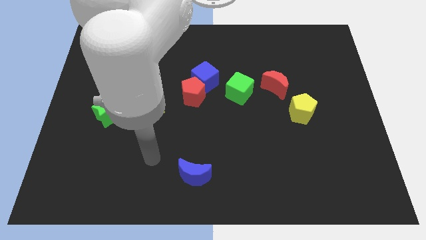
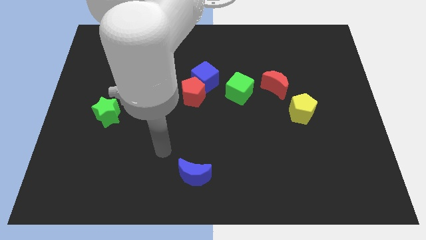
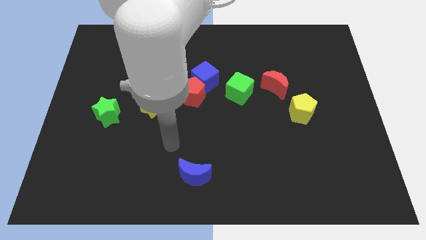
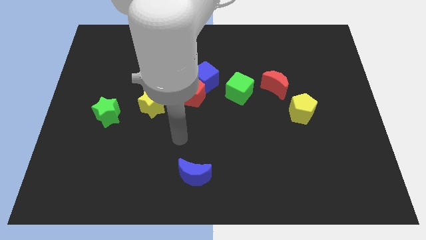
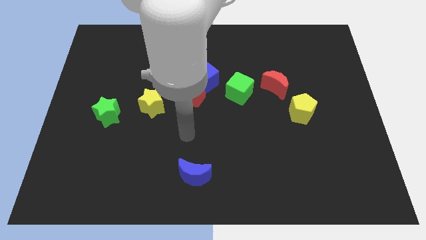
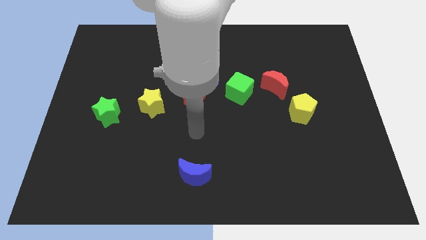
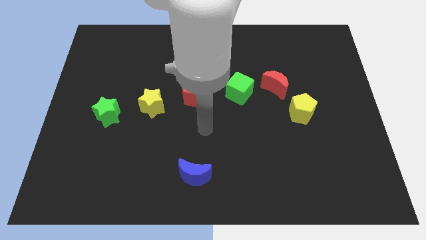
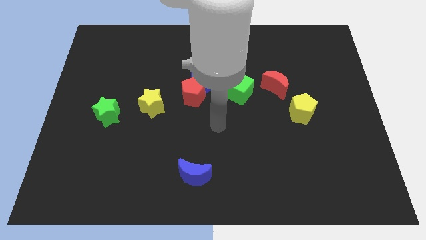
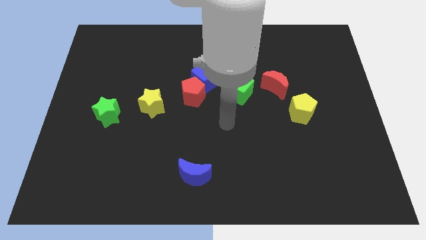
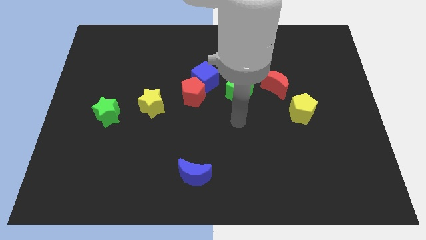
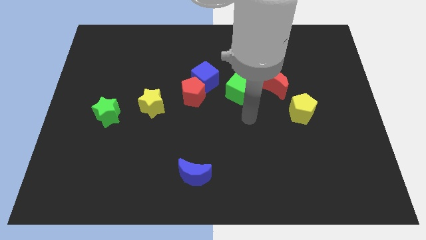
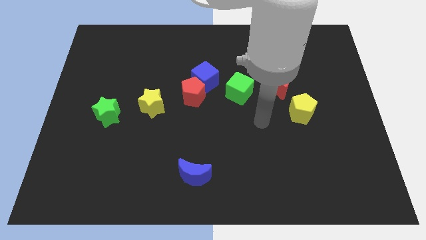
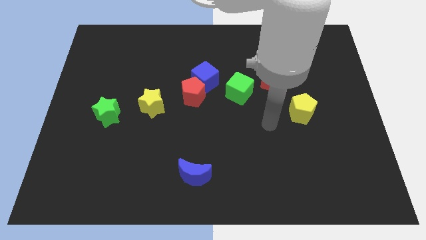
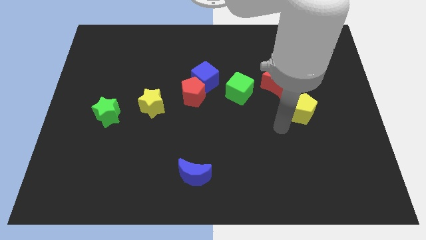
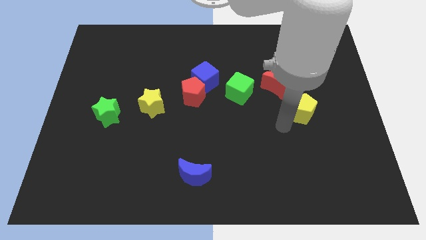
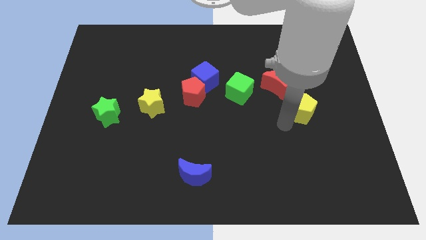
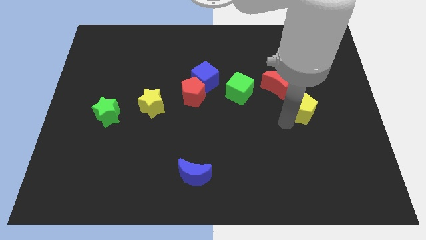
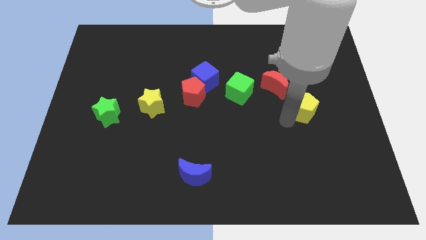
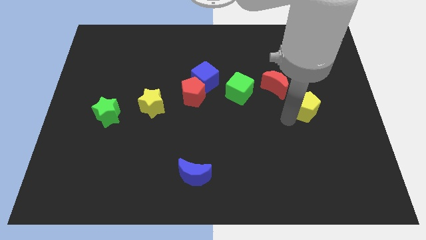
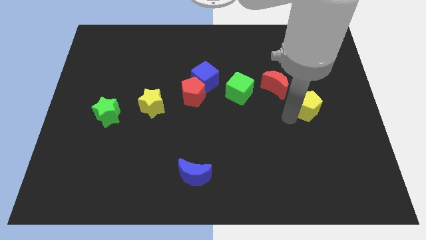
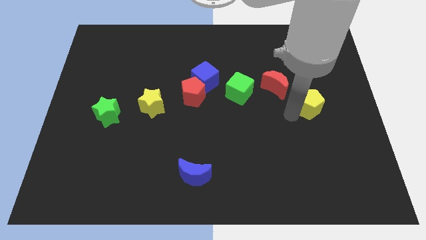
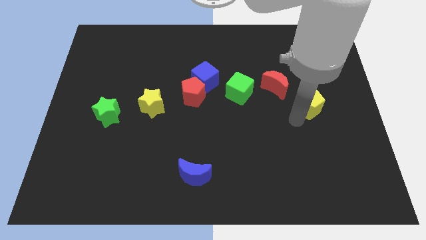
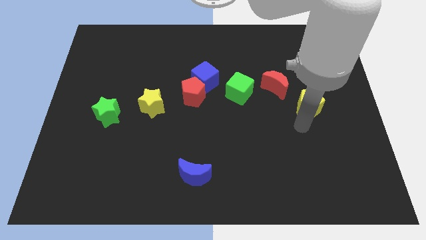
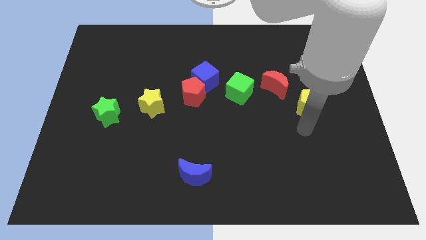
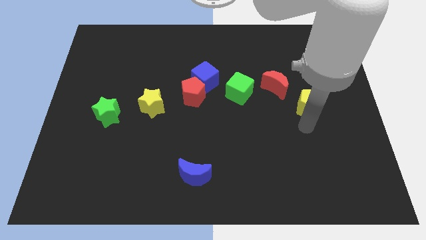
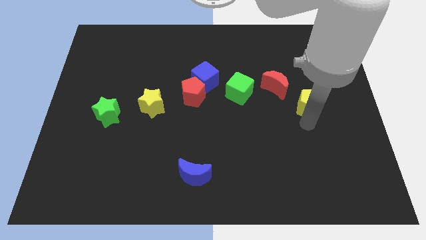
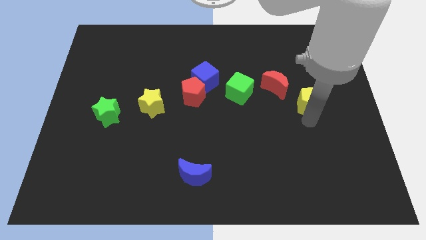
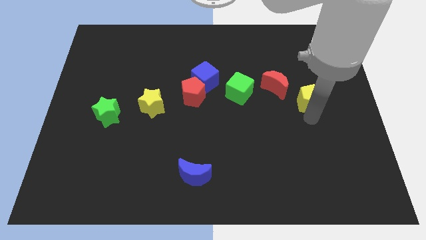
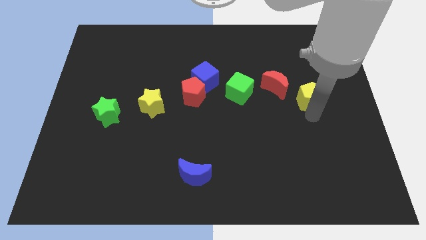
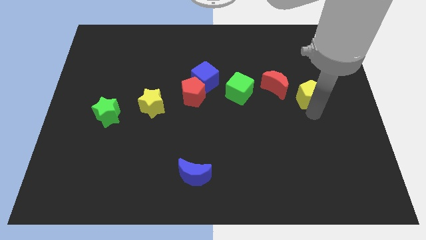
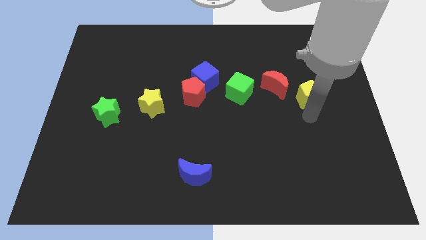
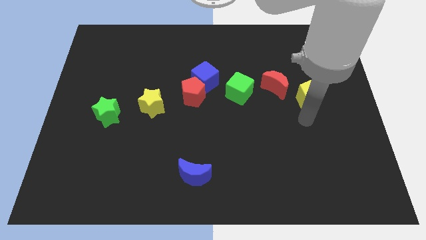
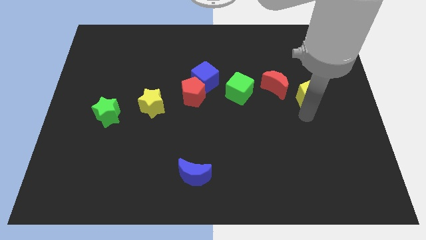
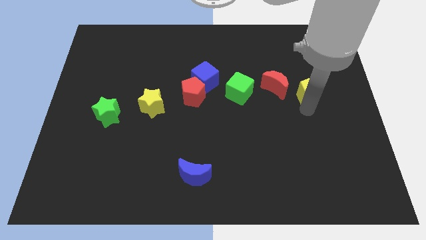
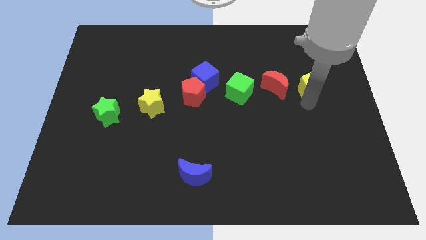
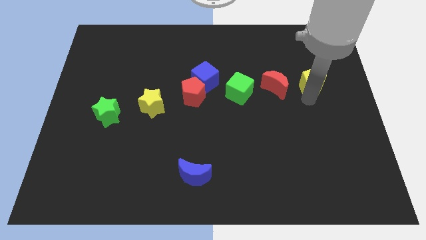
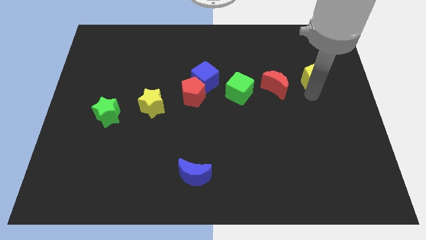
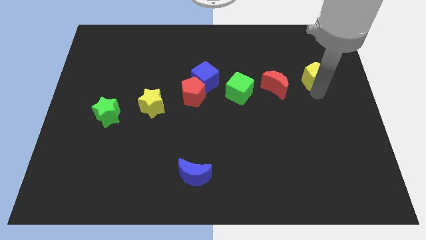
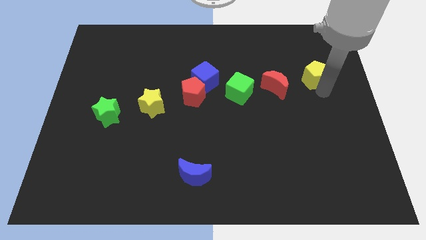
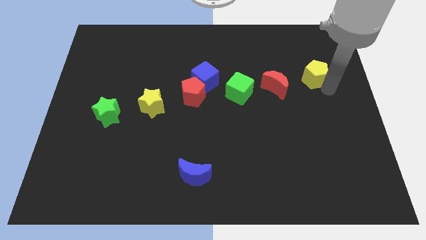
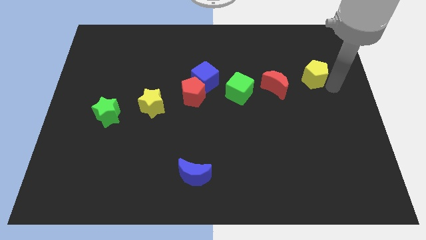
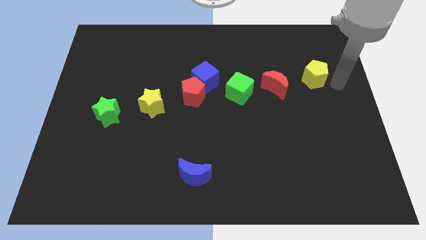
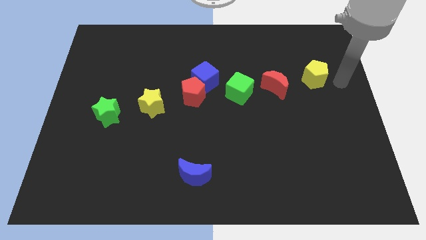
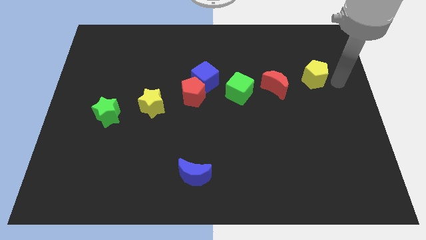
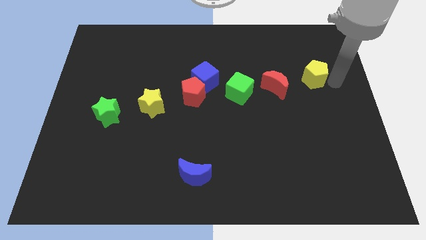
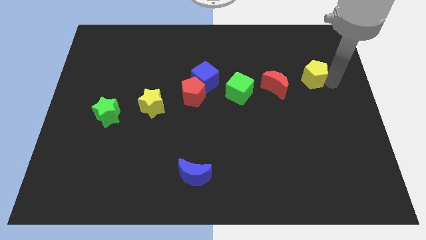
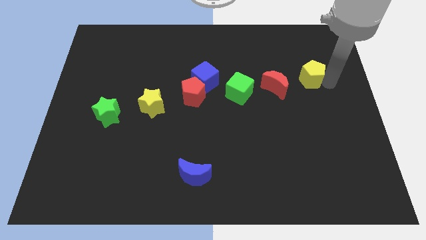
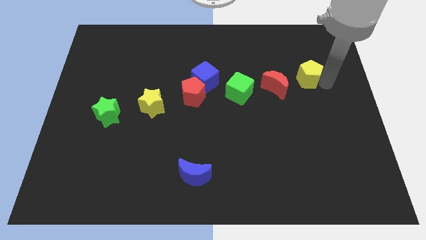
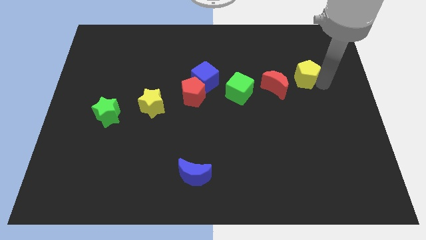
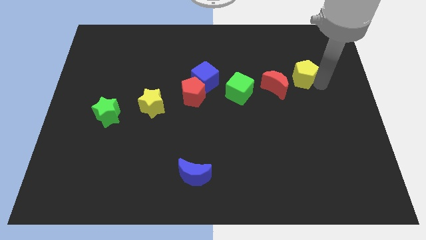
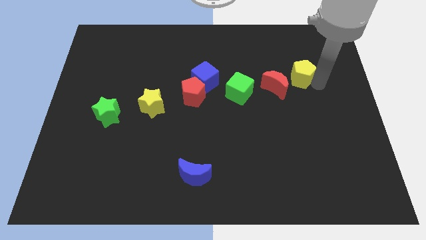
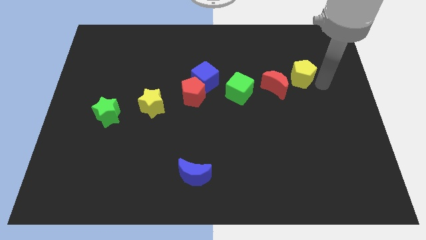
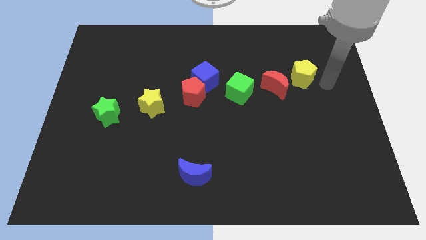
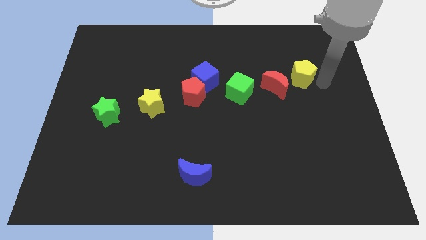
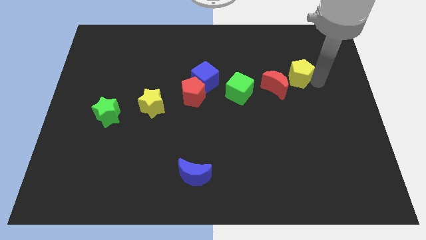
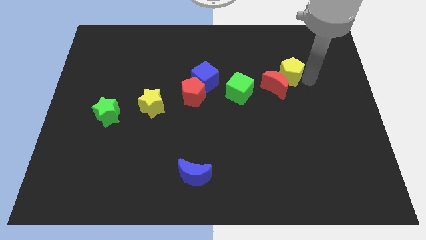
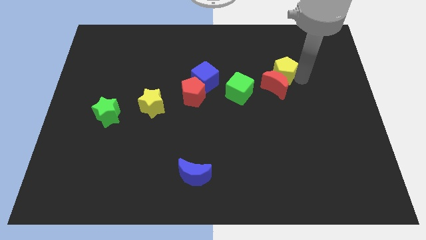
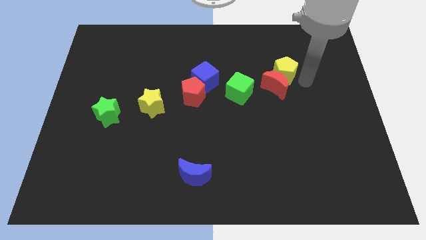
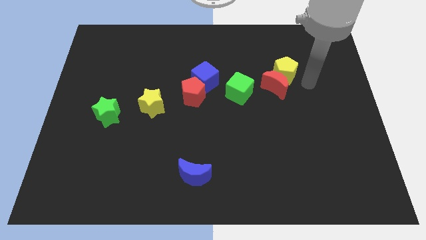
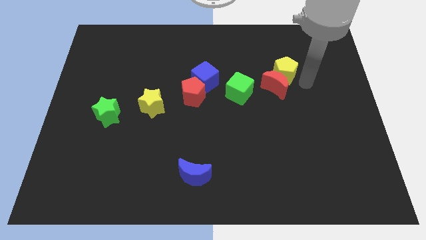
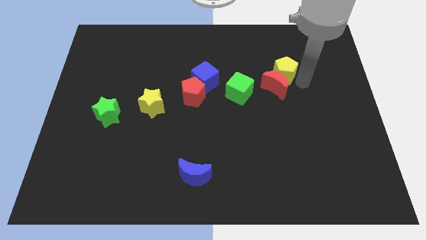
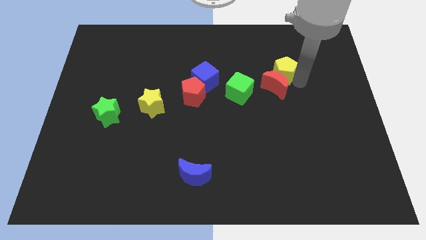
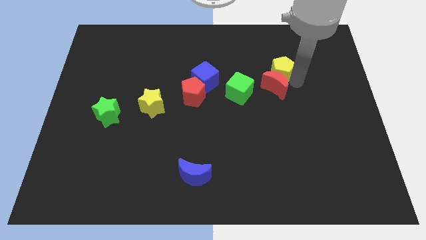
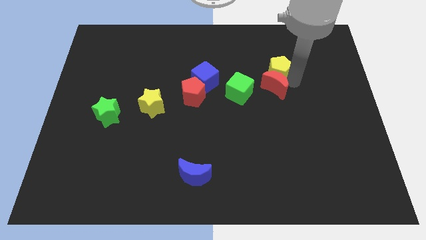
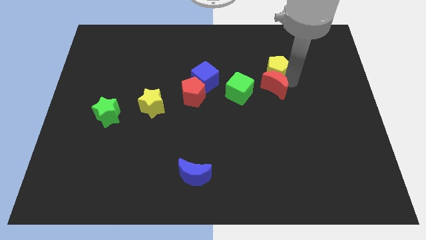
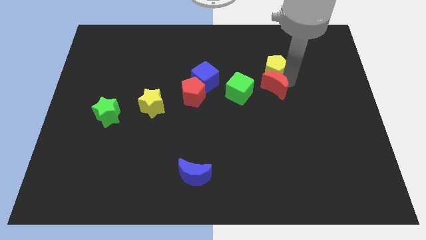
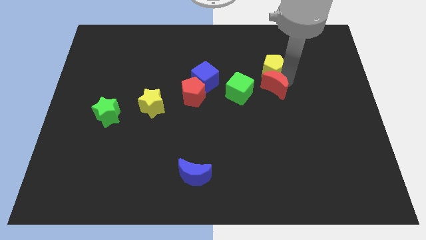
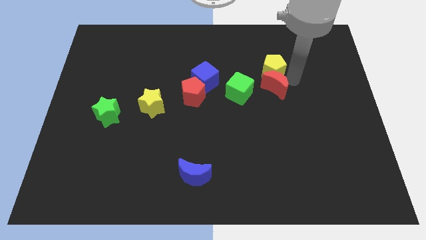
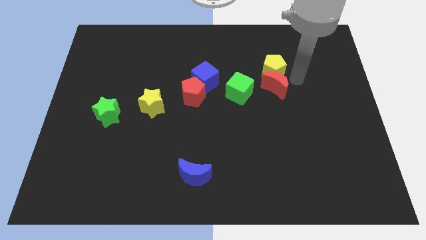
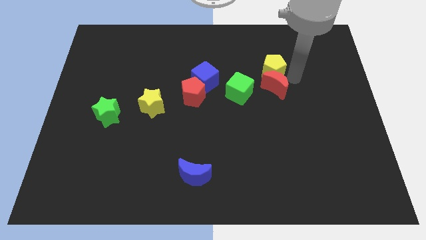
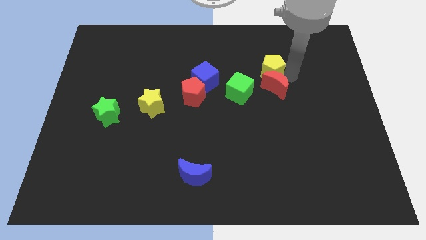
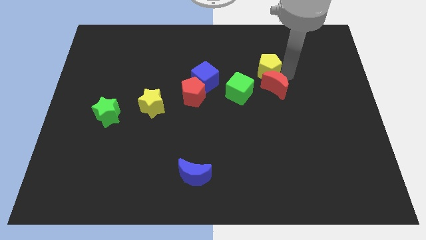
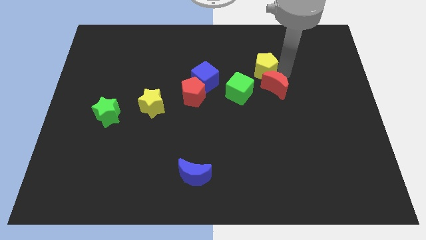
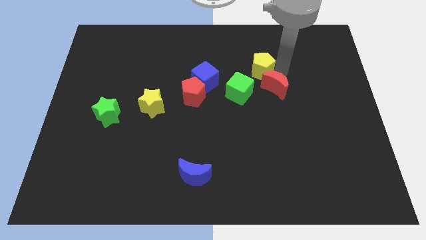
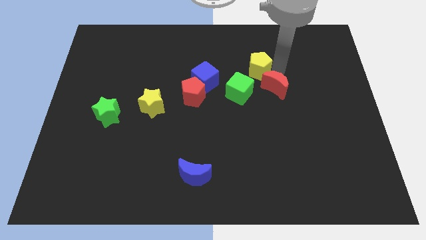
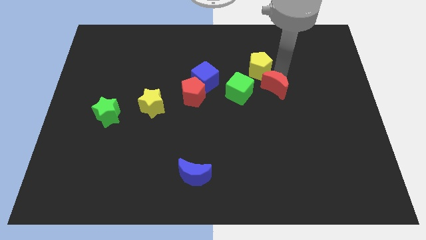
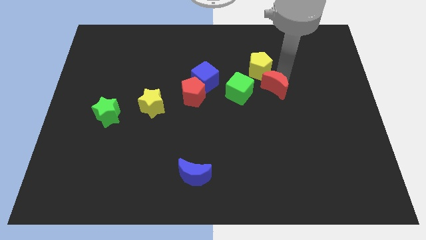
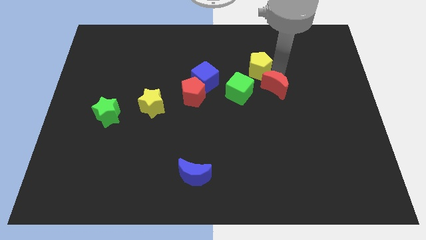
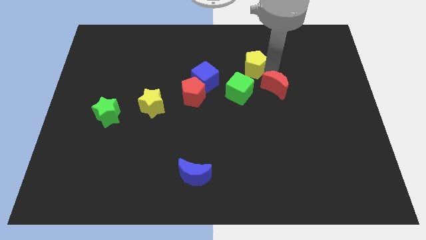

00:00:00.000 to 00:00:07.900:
put the yellow pentagon above the green cube

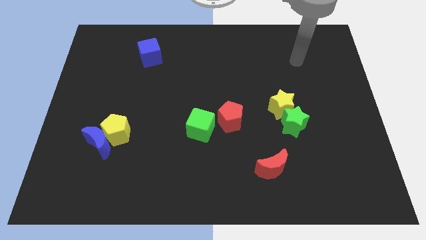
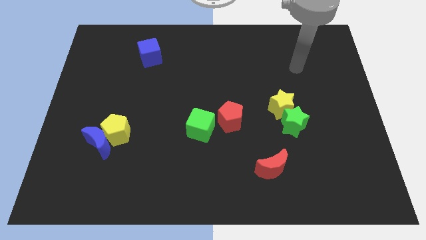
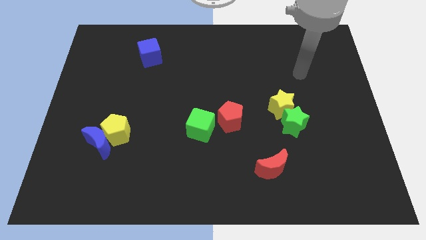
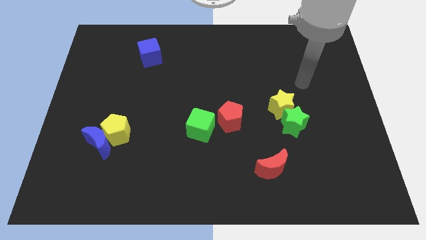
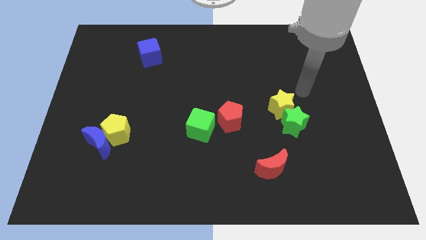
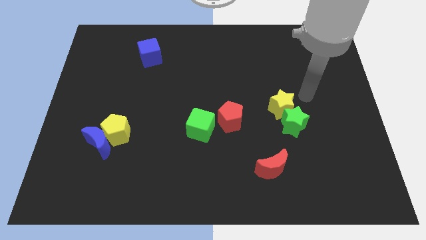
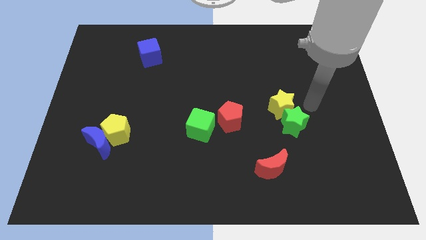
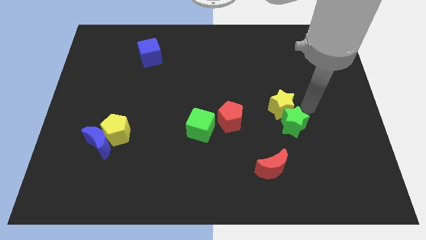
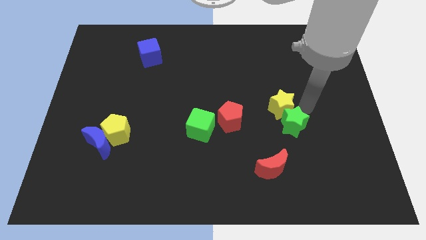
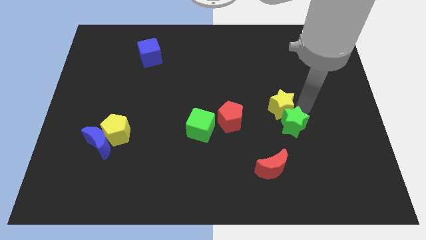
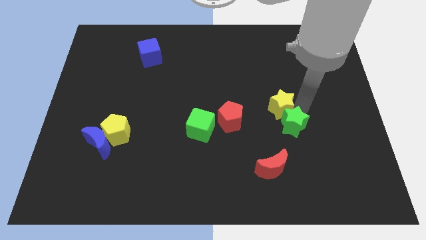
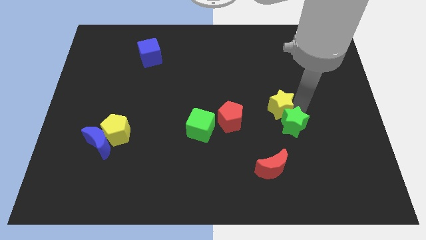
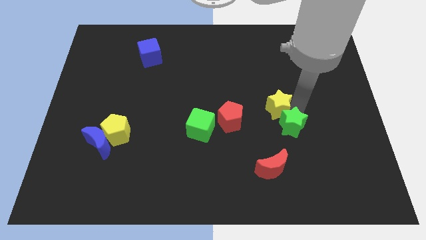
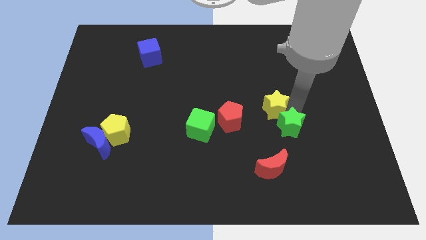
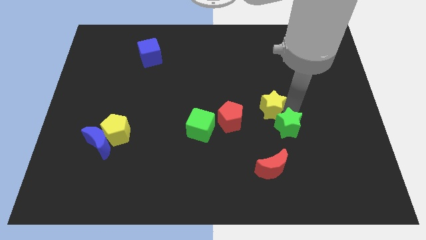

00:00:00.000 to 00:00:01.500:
move the yellow star to the top right side of the red pentagon
